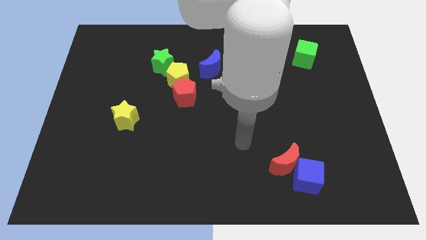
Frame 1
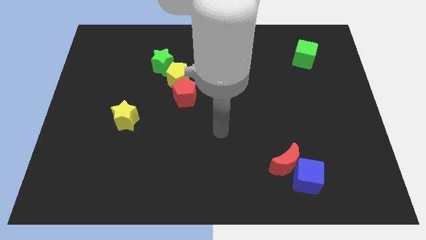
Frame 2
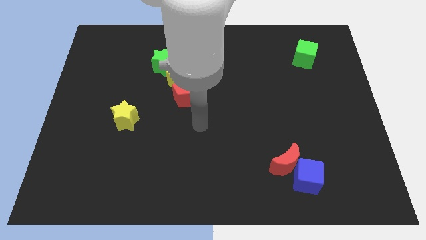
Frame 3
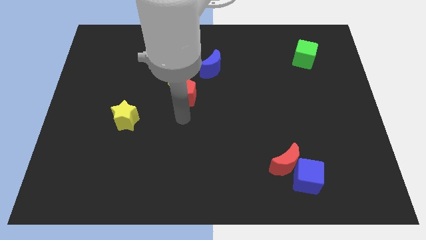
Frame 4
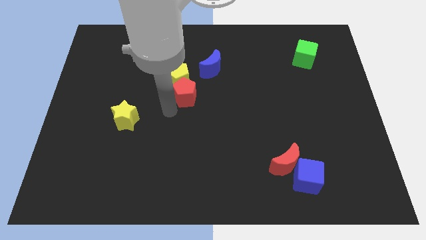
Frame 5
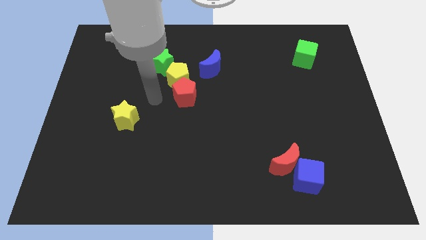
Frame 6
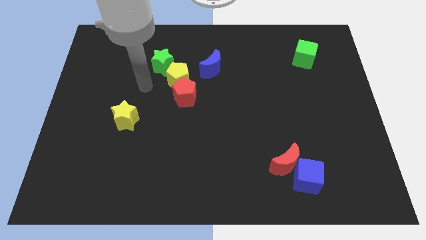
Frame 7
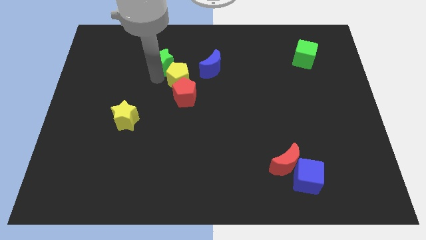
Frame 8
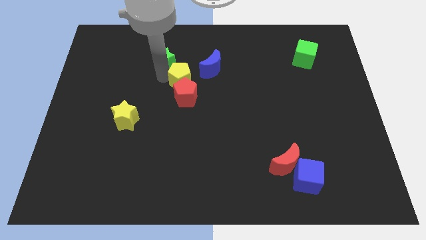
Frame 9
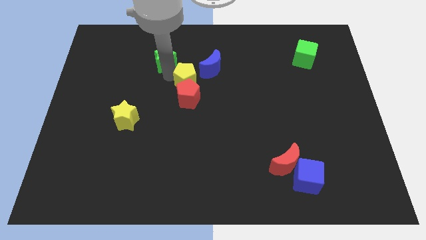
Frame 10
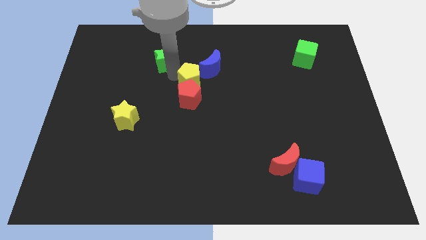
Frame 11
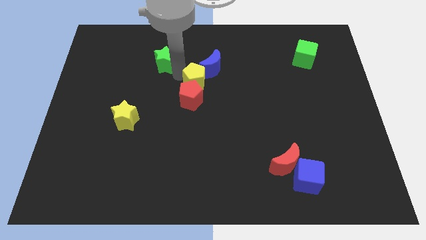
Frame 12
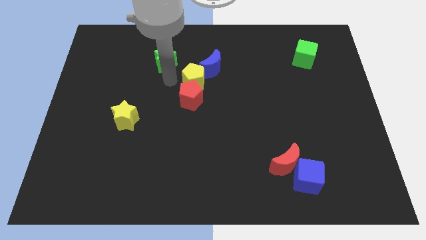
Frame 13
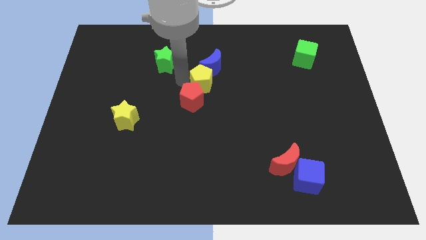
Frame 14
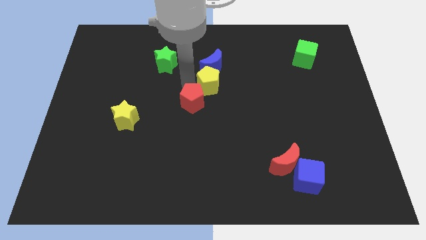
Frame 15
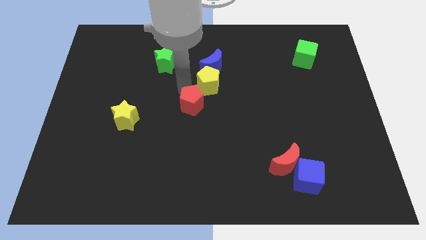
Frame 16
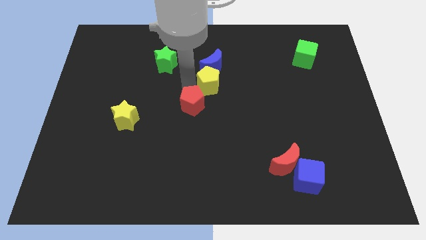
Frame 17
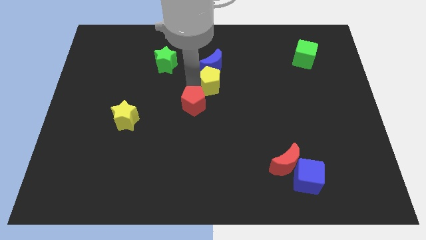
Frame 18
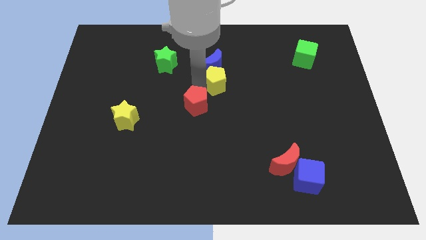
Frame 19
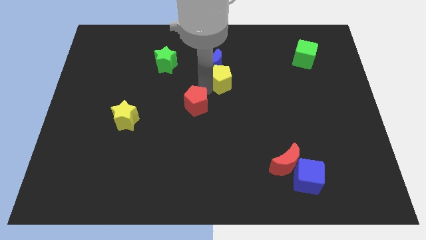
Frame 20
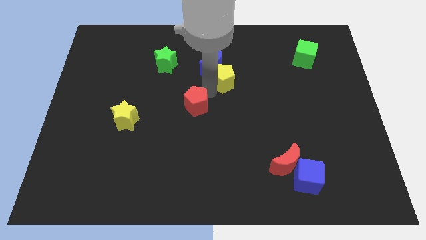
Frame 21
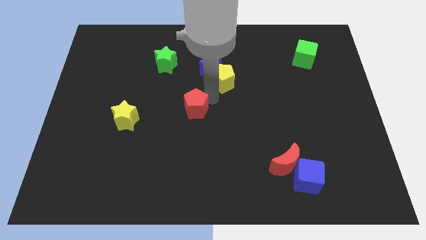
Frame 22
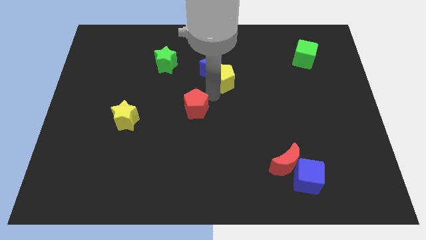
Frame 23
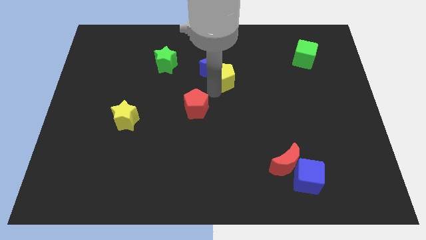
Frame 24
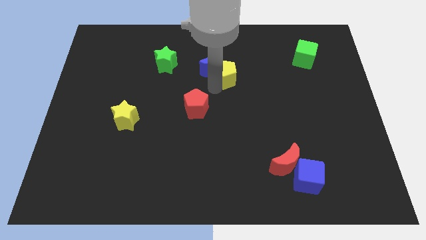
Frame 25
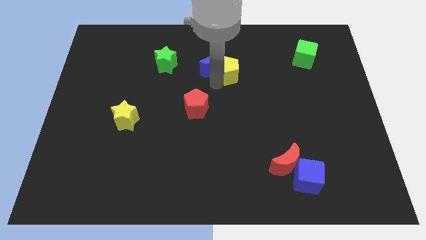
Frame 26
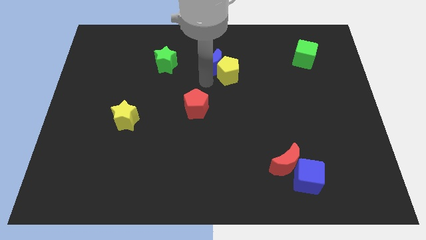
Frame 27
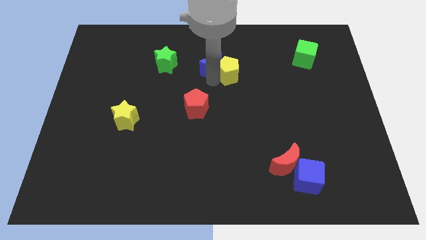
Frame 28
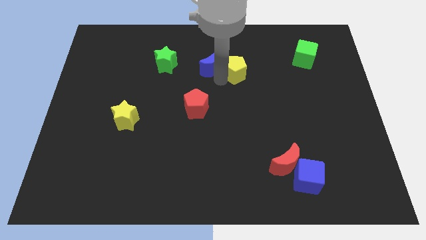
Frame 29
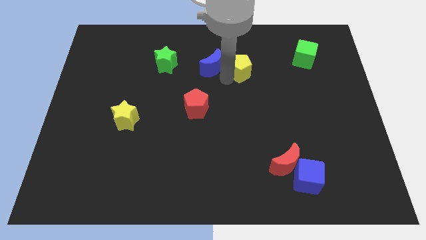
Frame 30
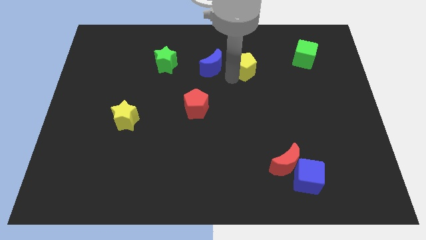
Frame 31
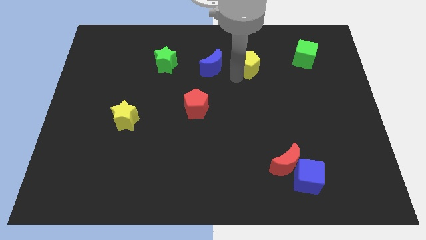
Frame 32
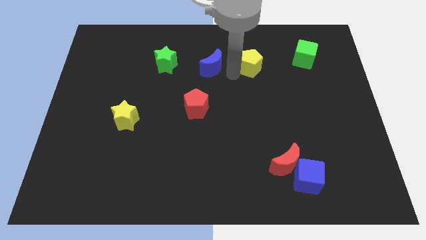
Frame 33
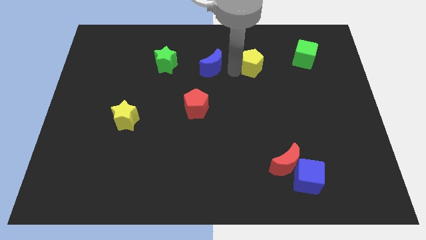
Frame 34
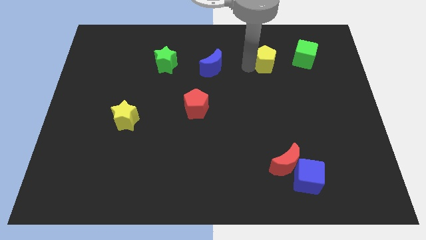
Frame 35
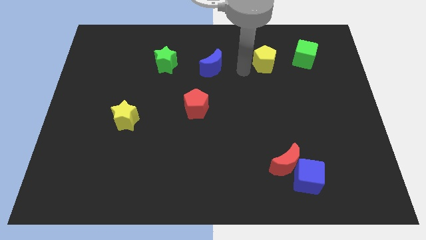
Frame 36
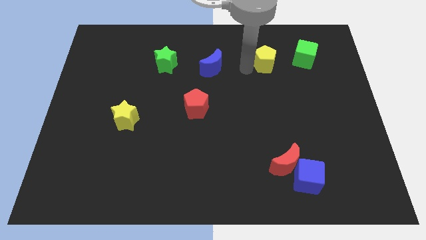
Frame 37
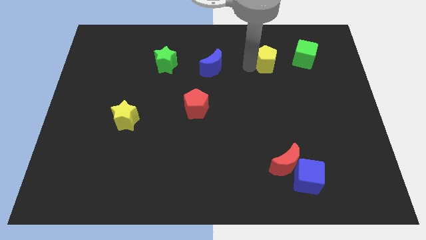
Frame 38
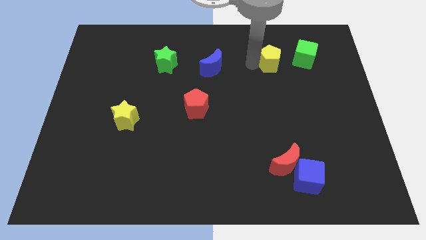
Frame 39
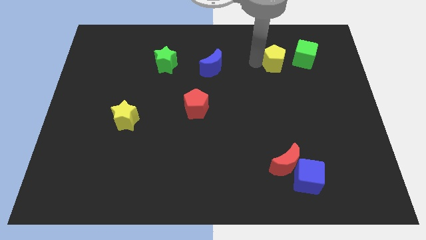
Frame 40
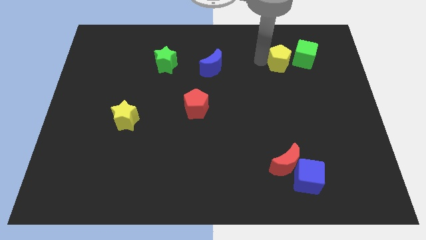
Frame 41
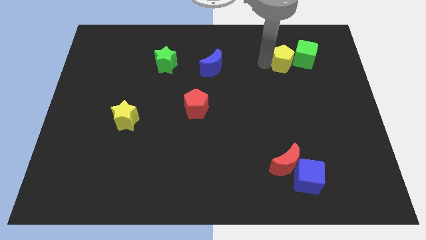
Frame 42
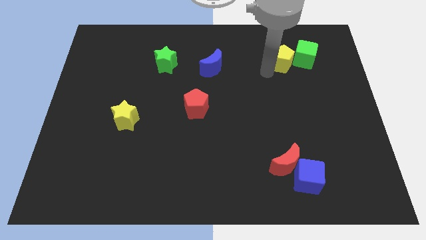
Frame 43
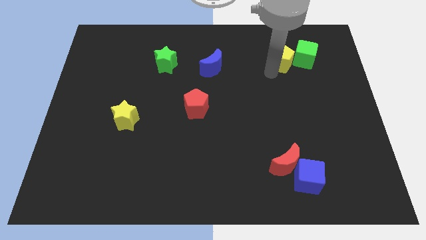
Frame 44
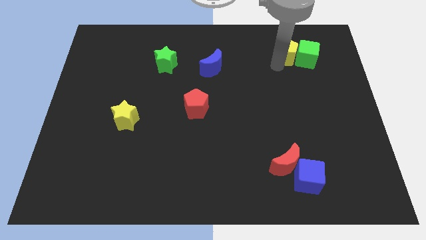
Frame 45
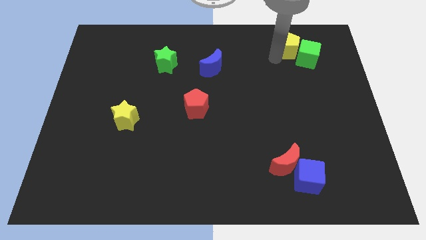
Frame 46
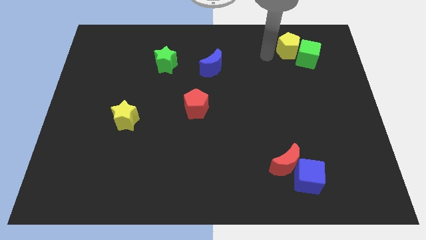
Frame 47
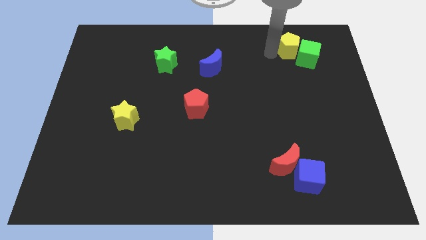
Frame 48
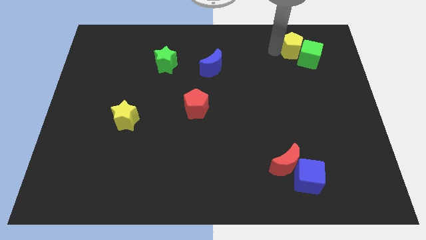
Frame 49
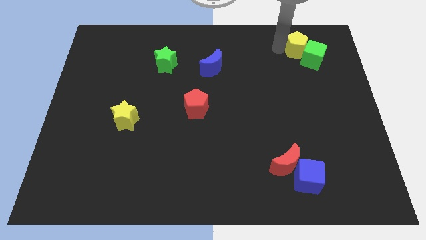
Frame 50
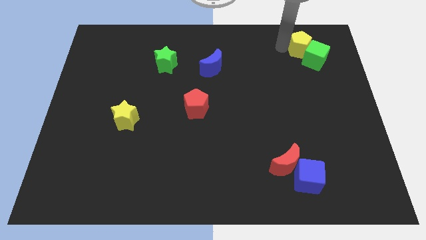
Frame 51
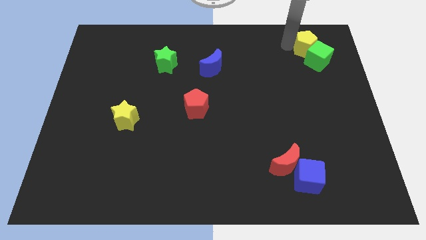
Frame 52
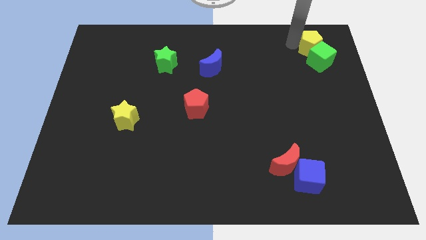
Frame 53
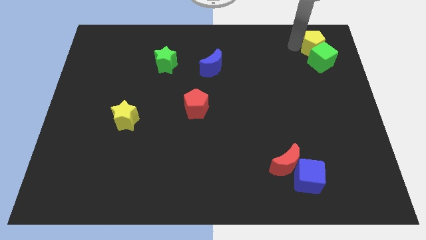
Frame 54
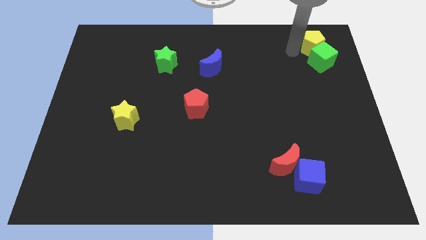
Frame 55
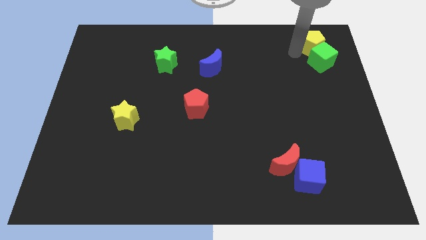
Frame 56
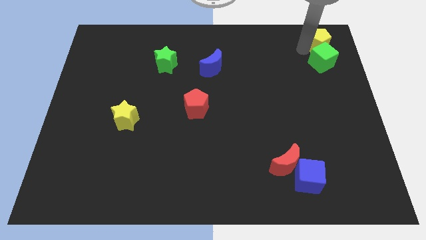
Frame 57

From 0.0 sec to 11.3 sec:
move the yellow pentagon to the top right of the board

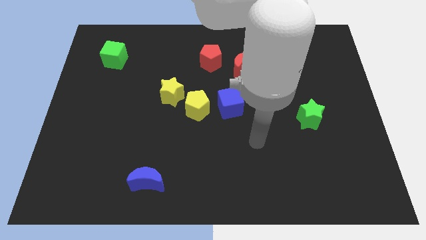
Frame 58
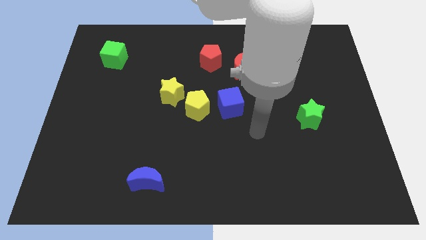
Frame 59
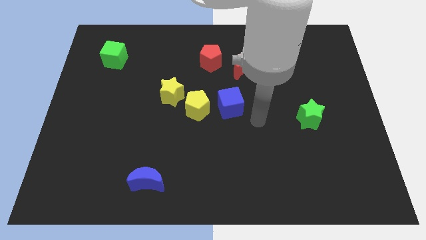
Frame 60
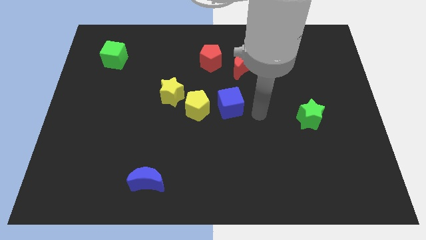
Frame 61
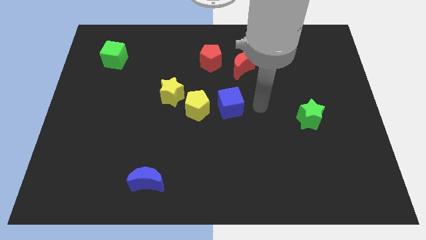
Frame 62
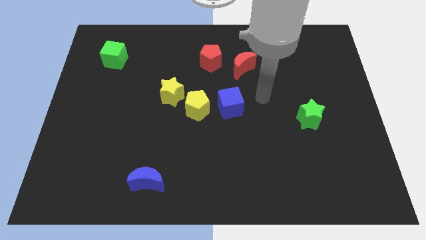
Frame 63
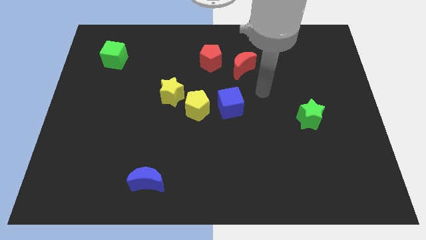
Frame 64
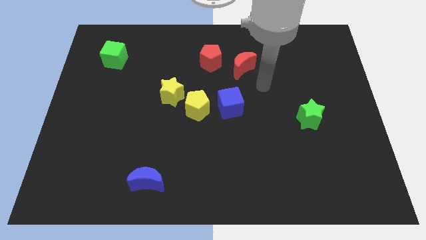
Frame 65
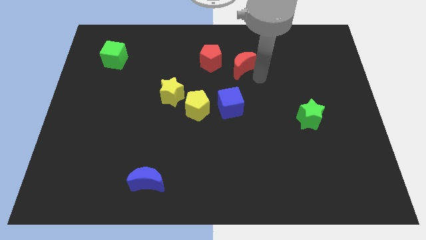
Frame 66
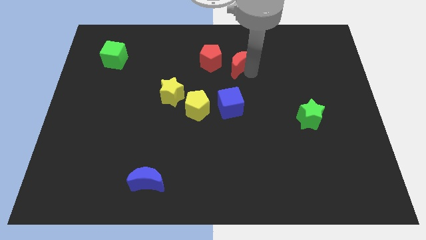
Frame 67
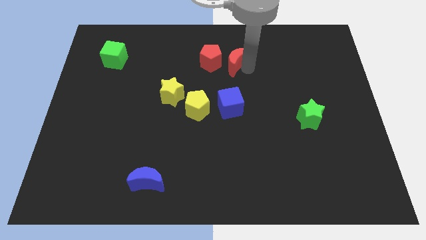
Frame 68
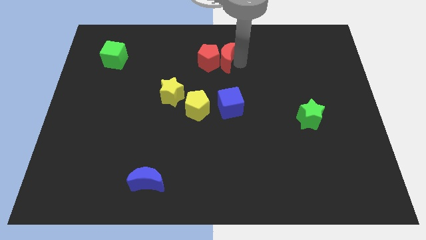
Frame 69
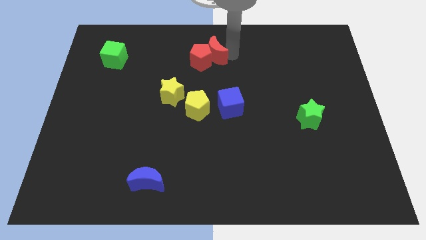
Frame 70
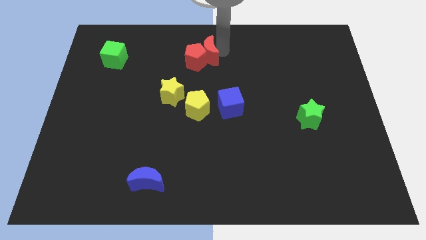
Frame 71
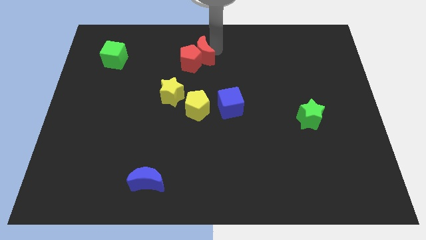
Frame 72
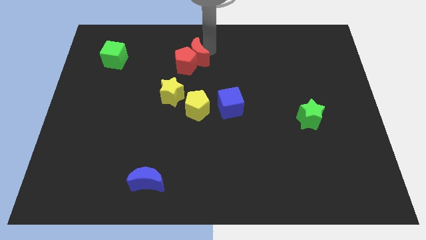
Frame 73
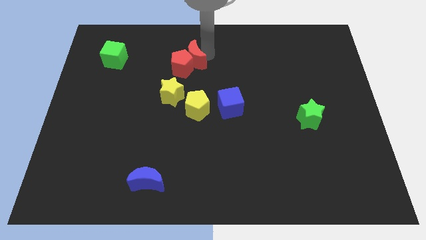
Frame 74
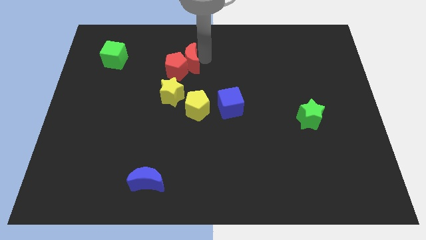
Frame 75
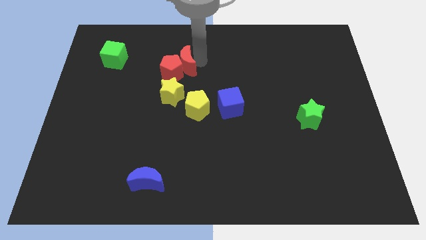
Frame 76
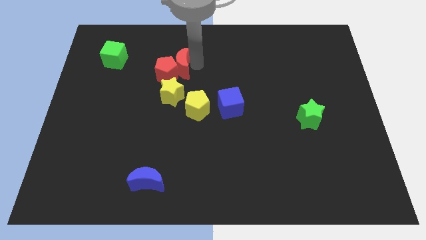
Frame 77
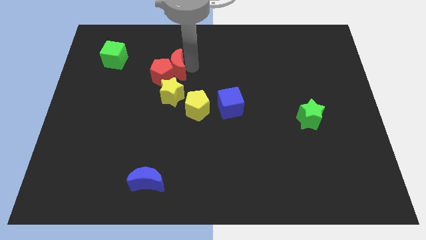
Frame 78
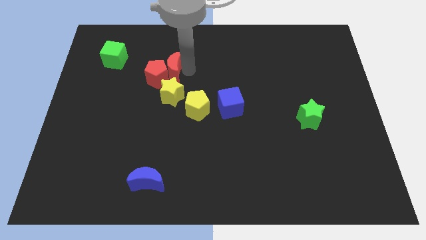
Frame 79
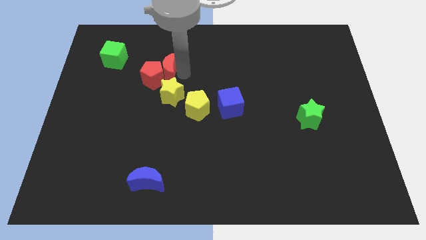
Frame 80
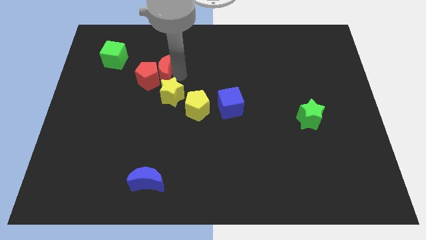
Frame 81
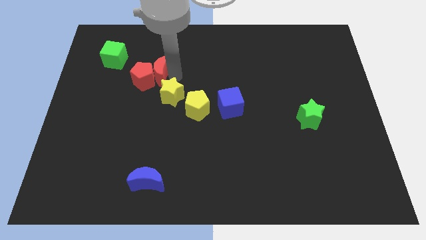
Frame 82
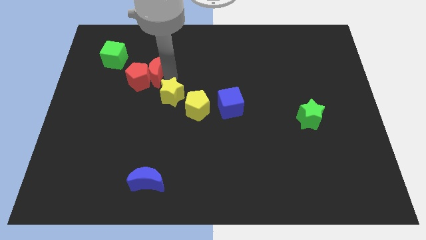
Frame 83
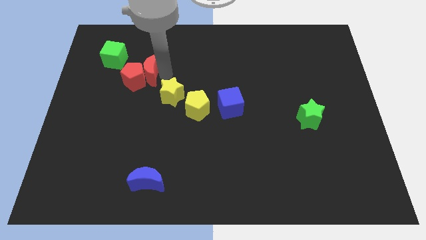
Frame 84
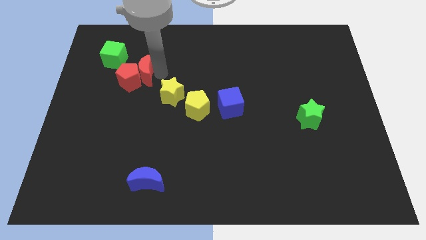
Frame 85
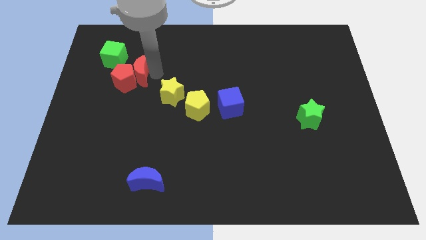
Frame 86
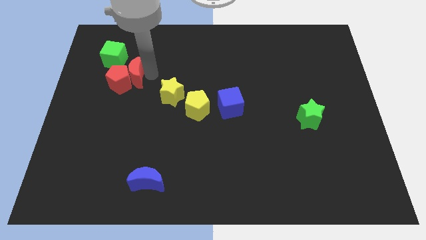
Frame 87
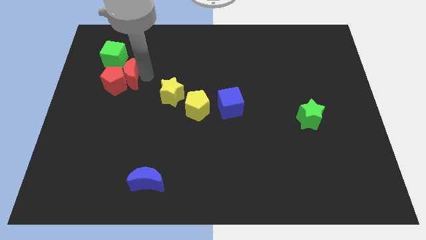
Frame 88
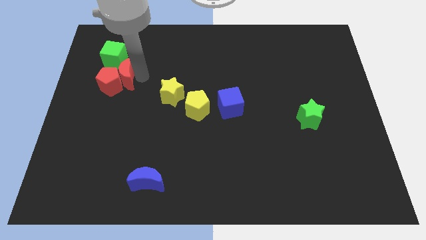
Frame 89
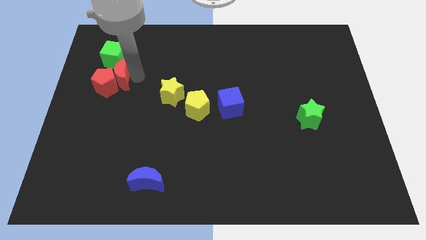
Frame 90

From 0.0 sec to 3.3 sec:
slide the red pentagon to the center left
